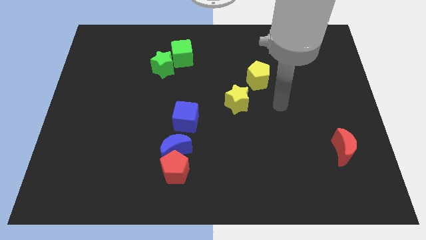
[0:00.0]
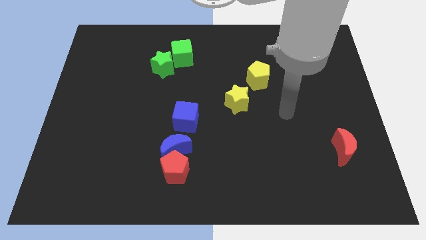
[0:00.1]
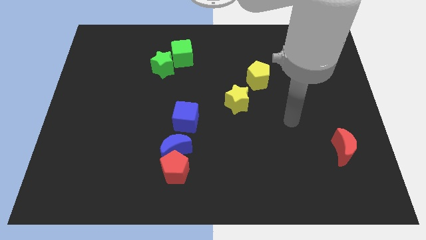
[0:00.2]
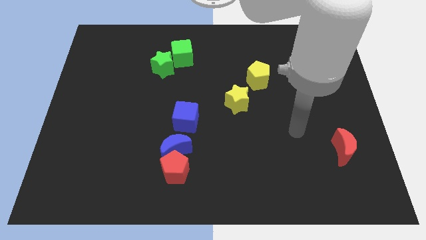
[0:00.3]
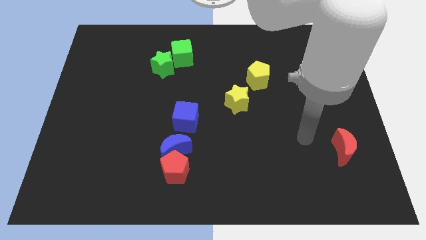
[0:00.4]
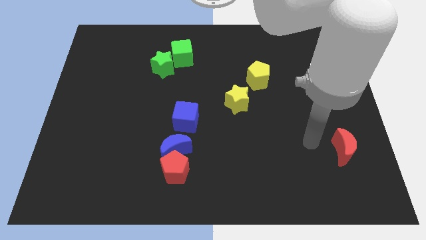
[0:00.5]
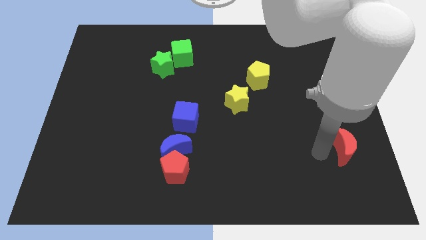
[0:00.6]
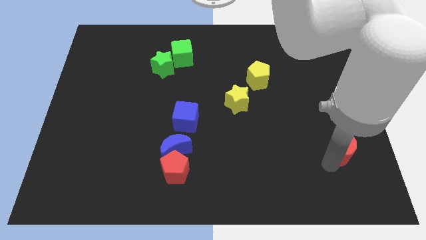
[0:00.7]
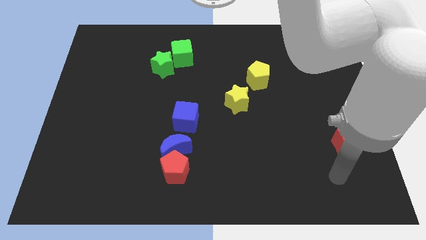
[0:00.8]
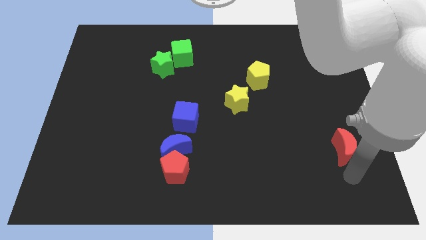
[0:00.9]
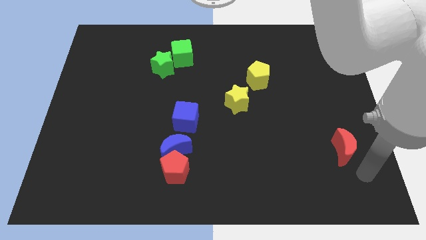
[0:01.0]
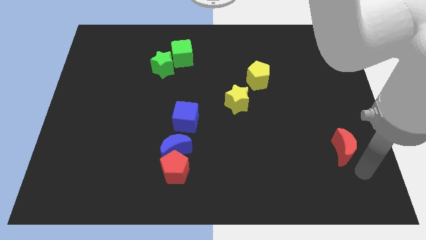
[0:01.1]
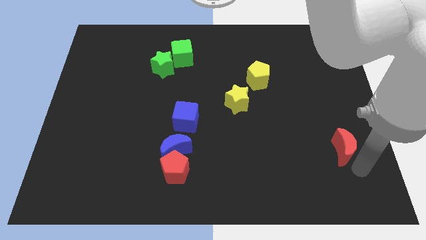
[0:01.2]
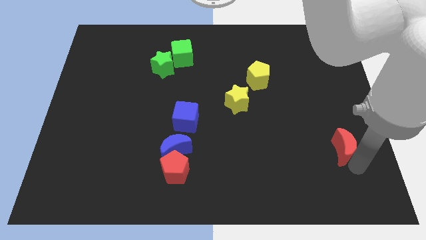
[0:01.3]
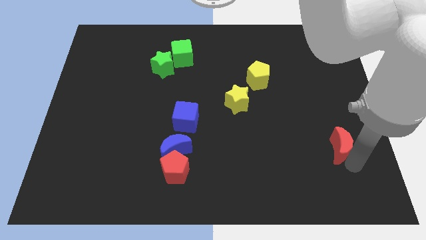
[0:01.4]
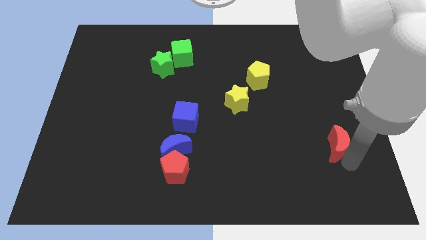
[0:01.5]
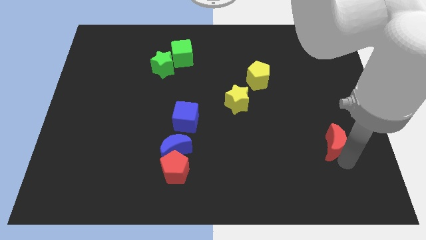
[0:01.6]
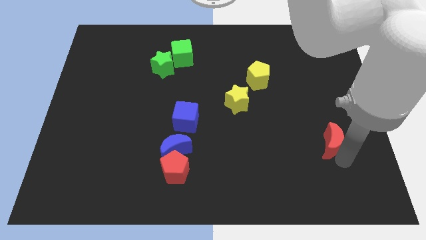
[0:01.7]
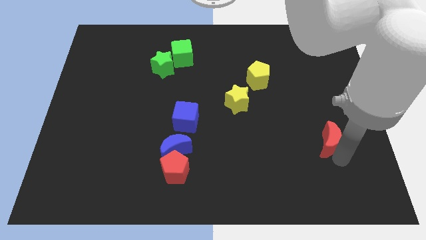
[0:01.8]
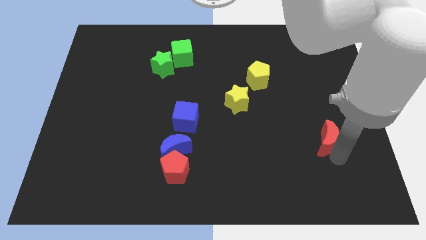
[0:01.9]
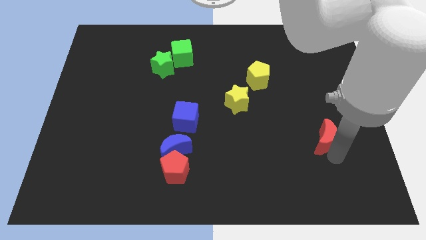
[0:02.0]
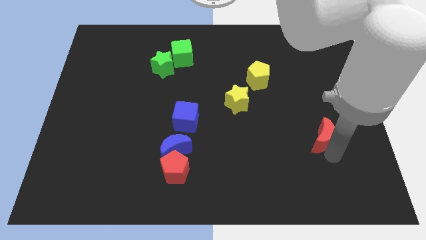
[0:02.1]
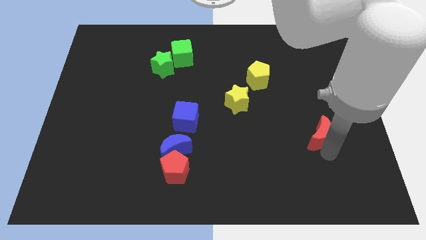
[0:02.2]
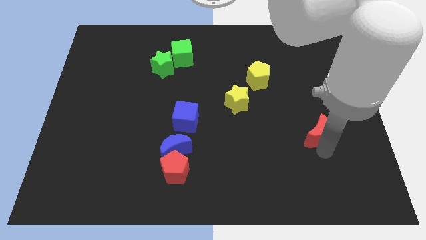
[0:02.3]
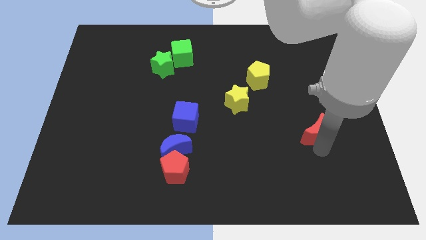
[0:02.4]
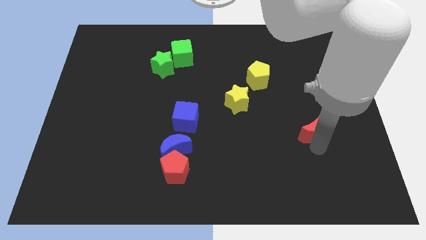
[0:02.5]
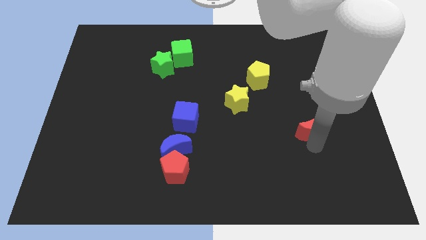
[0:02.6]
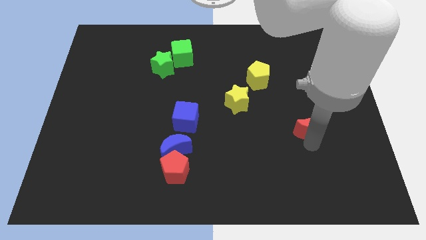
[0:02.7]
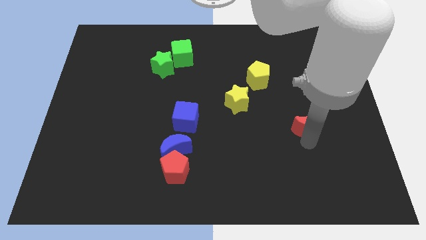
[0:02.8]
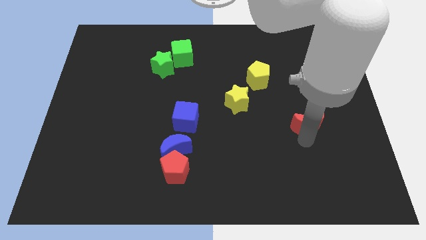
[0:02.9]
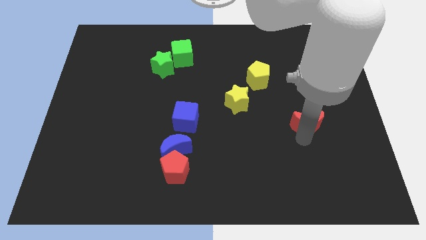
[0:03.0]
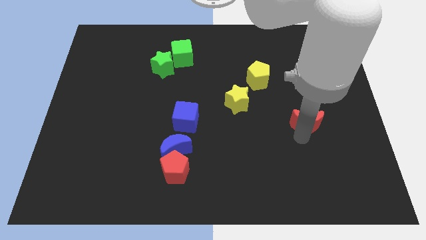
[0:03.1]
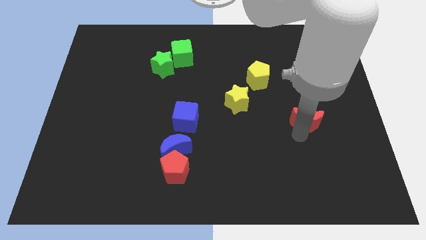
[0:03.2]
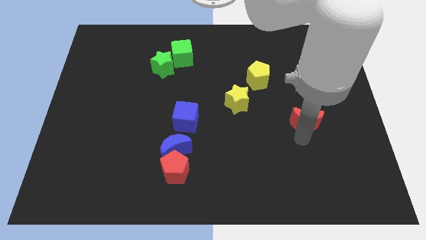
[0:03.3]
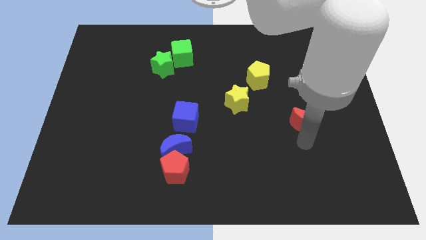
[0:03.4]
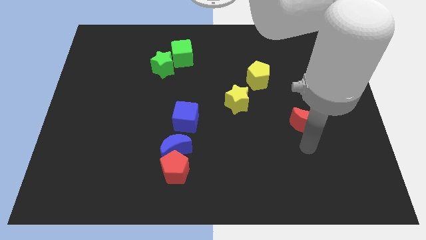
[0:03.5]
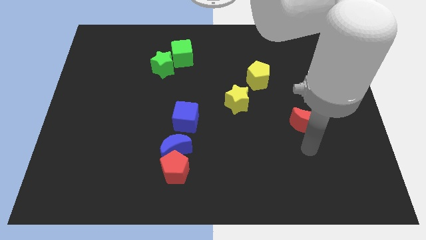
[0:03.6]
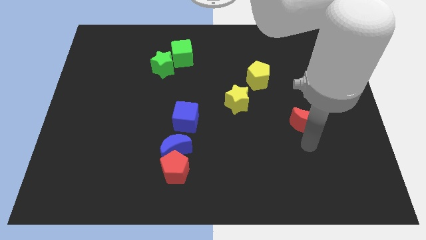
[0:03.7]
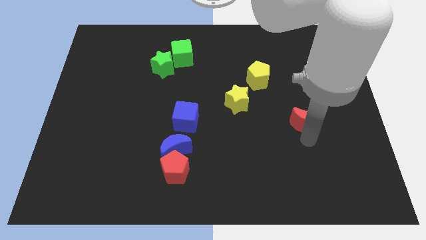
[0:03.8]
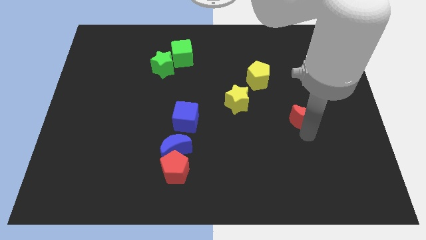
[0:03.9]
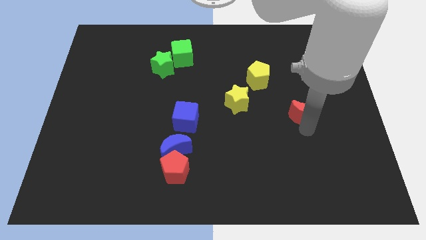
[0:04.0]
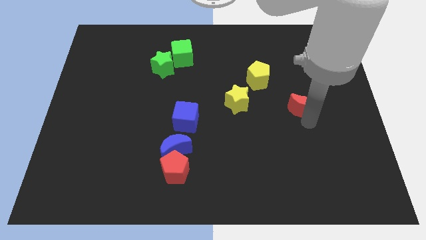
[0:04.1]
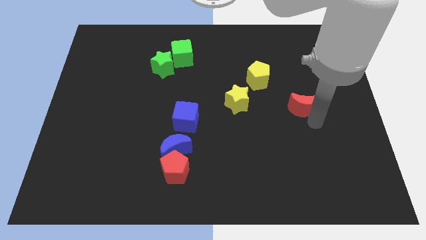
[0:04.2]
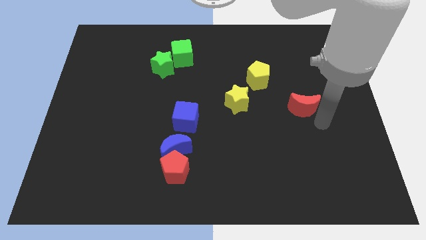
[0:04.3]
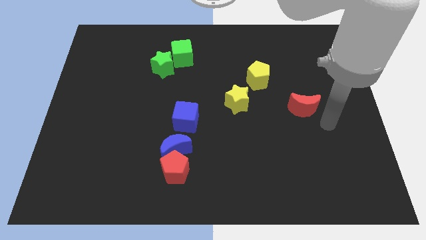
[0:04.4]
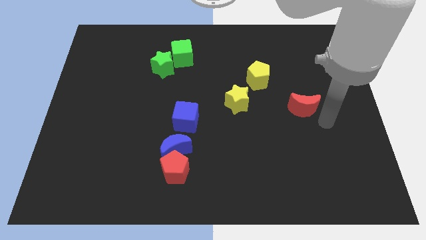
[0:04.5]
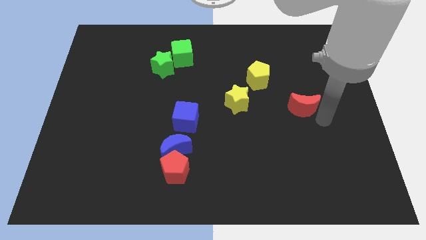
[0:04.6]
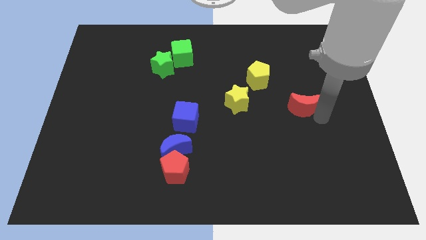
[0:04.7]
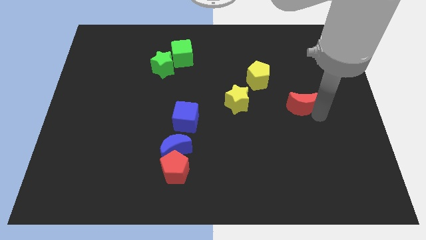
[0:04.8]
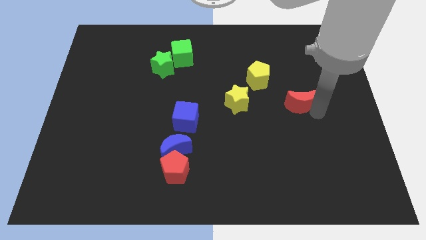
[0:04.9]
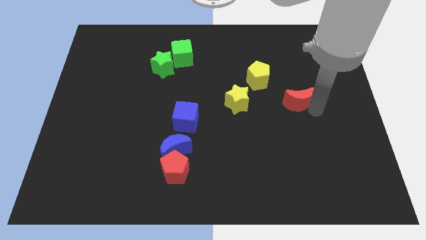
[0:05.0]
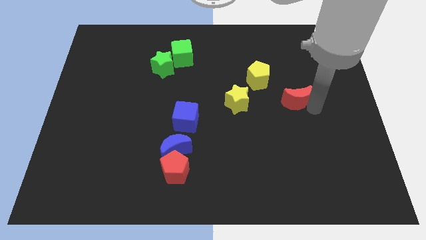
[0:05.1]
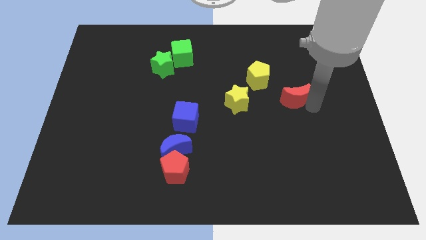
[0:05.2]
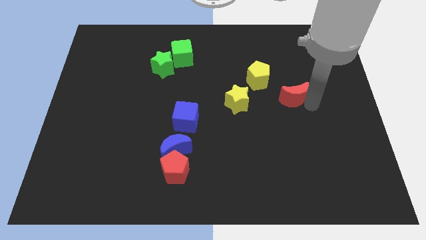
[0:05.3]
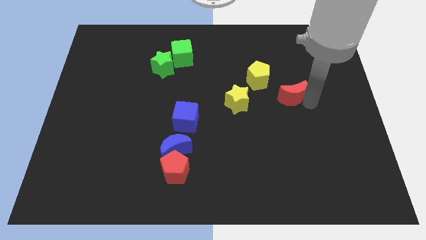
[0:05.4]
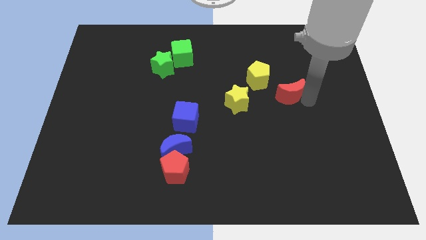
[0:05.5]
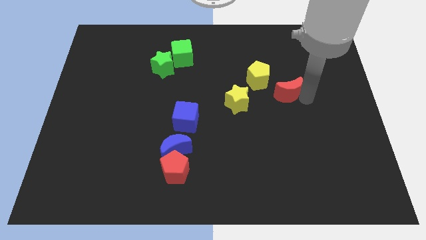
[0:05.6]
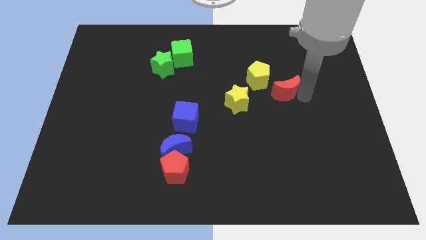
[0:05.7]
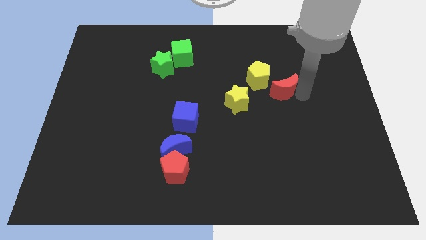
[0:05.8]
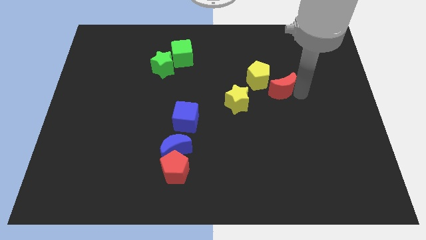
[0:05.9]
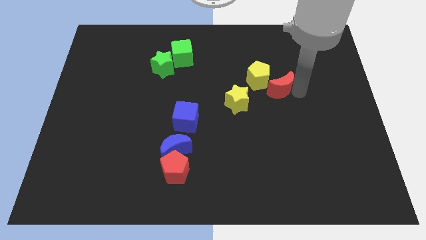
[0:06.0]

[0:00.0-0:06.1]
push the red moon towards the yellow pentagon

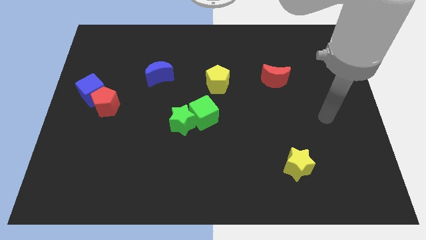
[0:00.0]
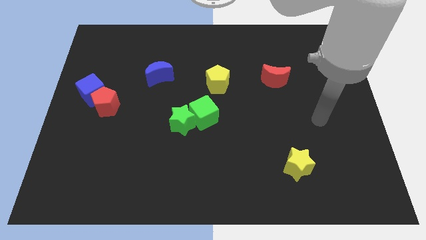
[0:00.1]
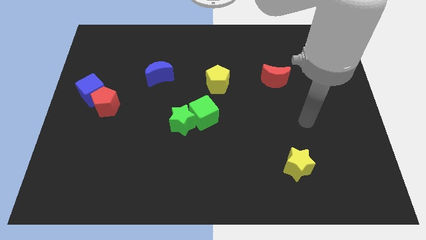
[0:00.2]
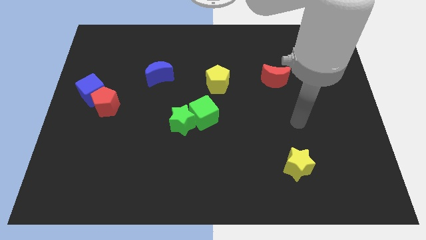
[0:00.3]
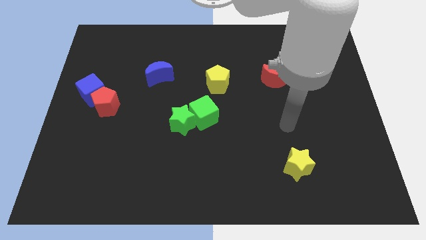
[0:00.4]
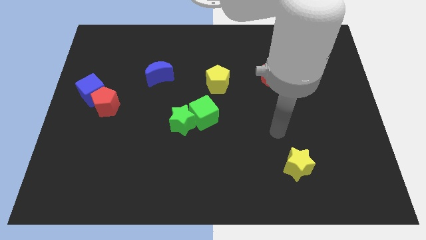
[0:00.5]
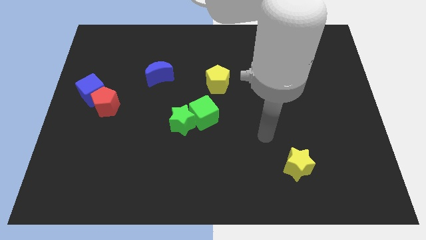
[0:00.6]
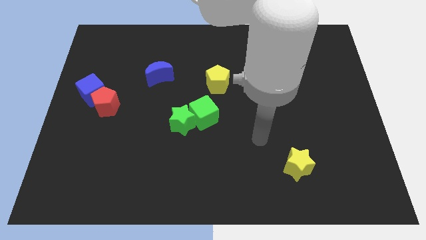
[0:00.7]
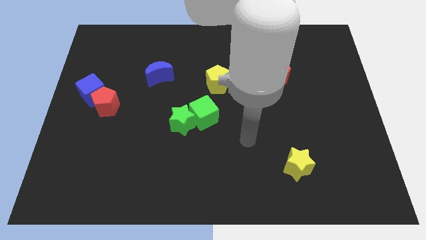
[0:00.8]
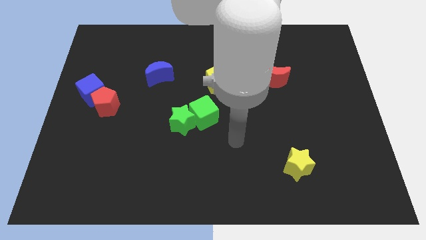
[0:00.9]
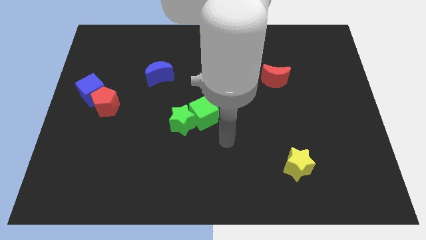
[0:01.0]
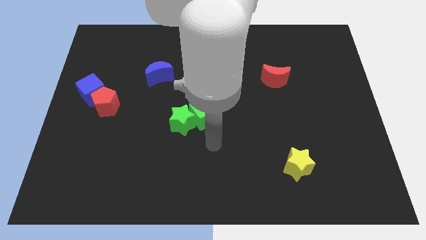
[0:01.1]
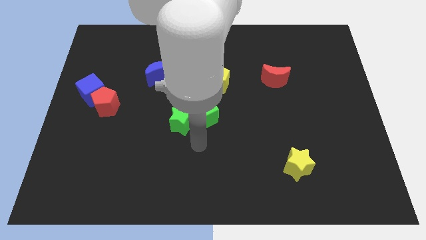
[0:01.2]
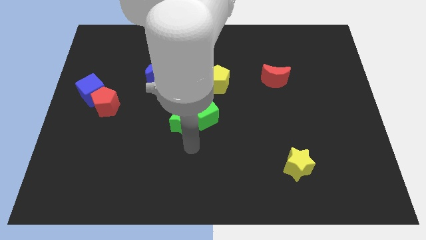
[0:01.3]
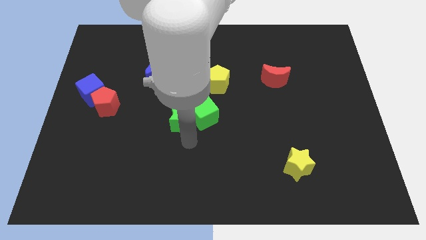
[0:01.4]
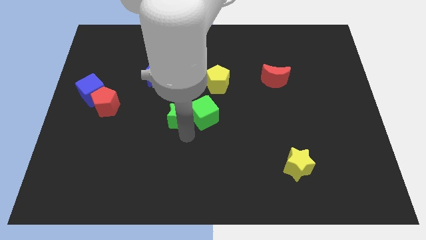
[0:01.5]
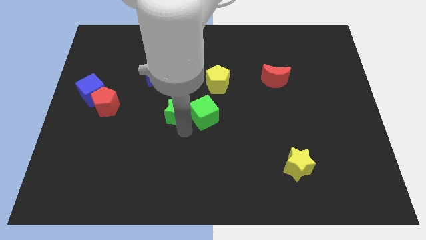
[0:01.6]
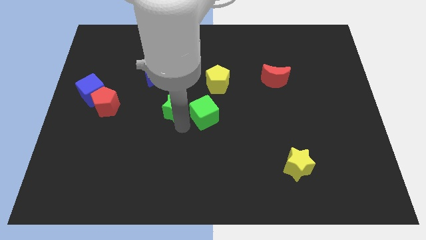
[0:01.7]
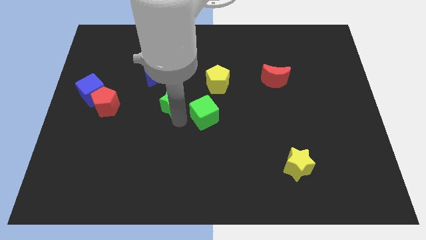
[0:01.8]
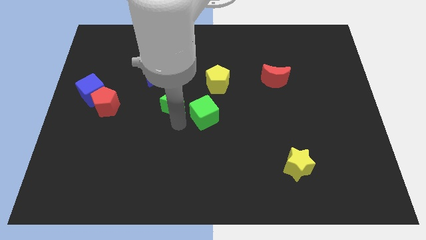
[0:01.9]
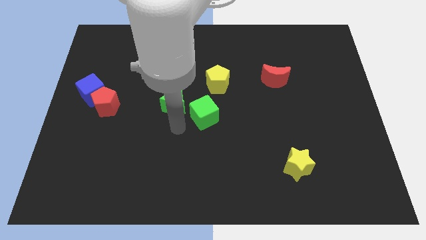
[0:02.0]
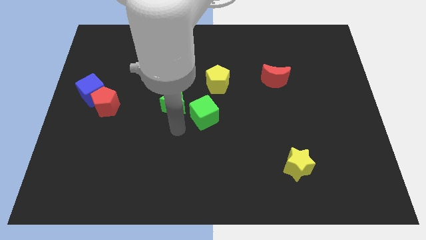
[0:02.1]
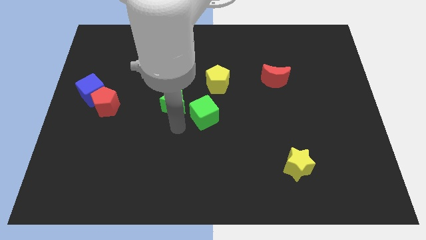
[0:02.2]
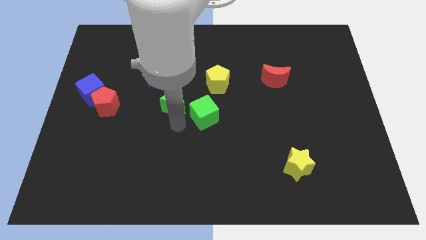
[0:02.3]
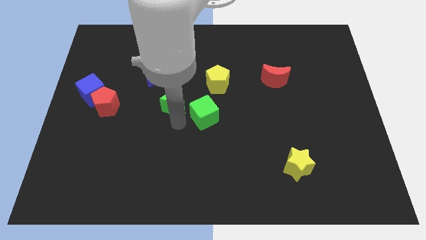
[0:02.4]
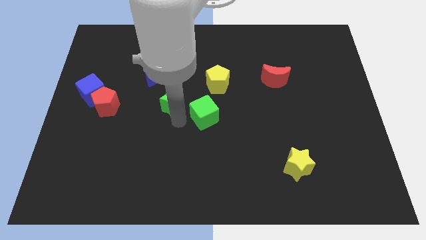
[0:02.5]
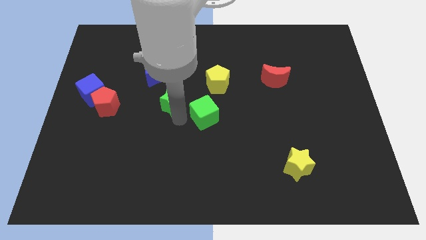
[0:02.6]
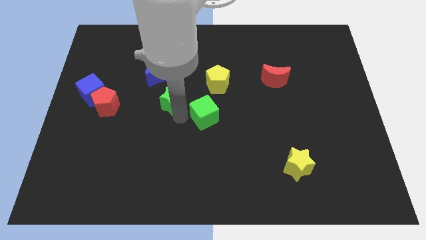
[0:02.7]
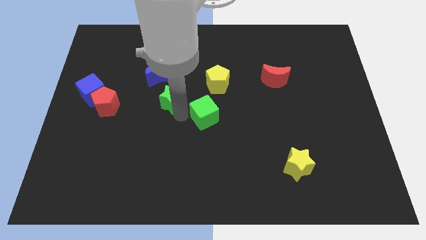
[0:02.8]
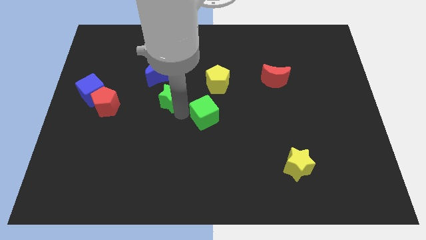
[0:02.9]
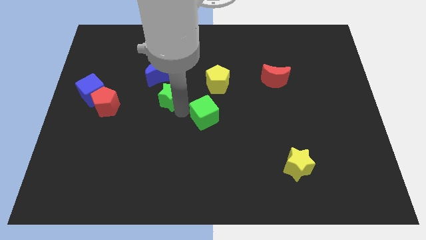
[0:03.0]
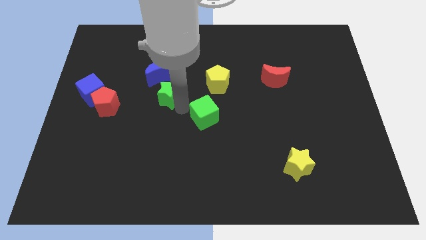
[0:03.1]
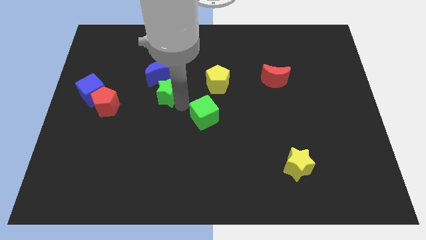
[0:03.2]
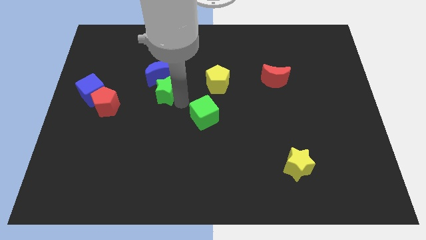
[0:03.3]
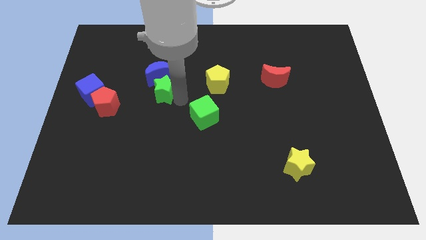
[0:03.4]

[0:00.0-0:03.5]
slide the green star close to the blue moon
